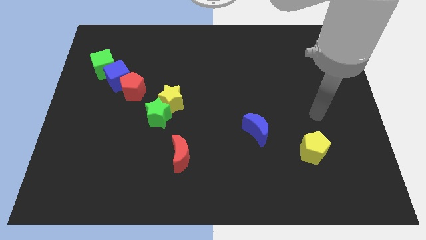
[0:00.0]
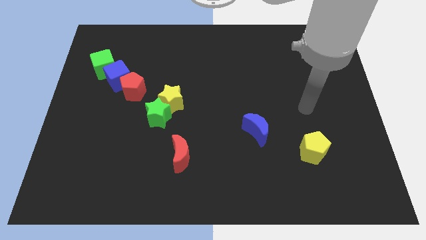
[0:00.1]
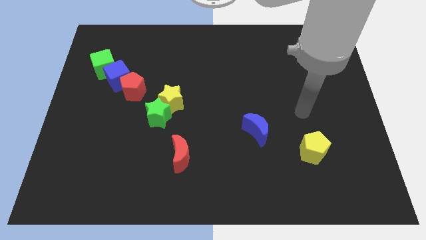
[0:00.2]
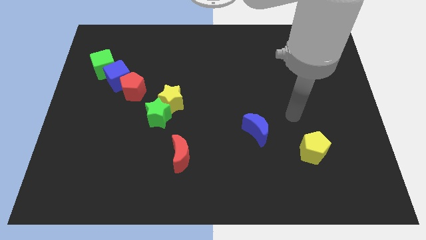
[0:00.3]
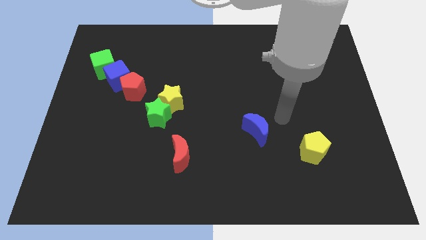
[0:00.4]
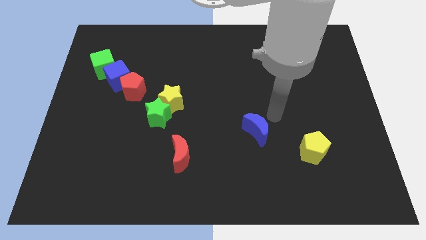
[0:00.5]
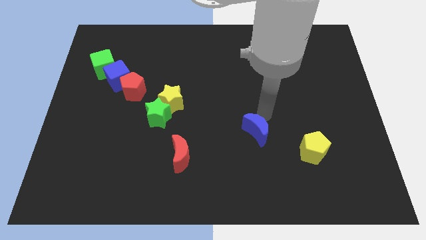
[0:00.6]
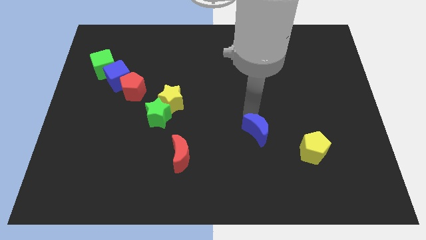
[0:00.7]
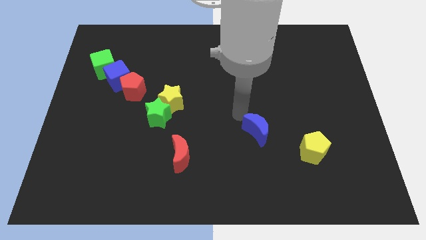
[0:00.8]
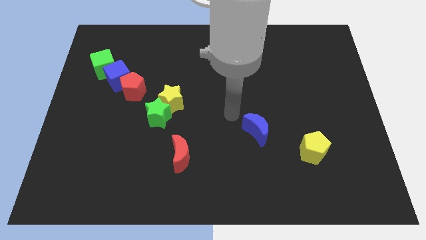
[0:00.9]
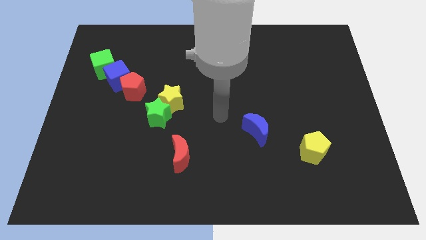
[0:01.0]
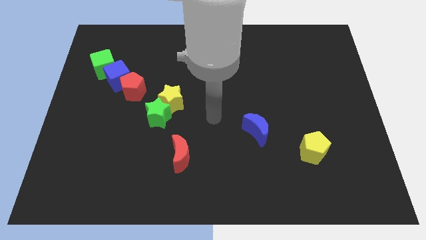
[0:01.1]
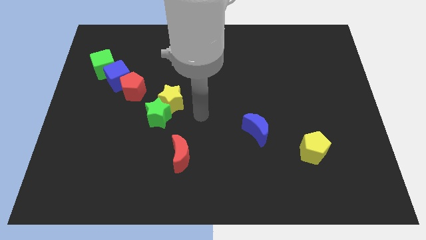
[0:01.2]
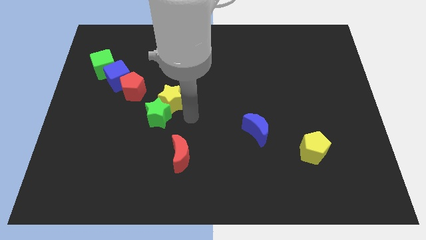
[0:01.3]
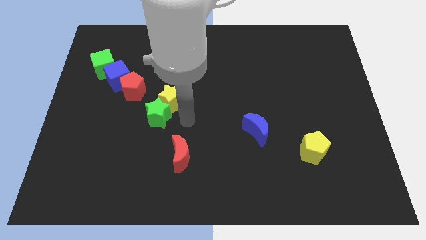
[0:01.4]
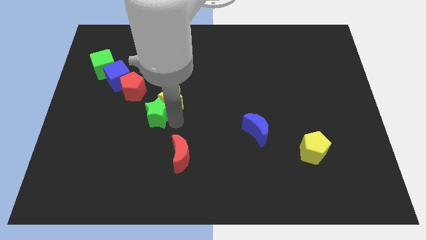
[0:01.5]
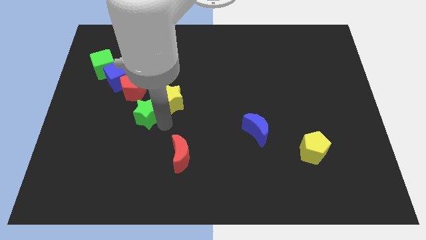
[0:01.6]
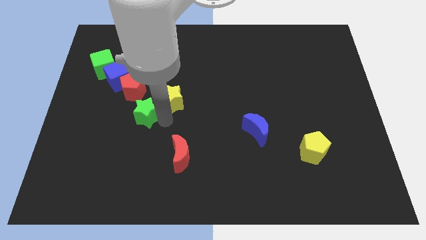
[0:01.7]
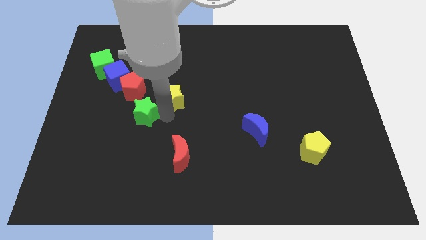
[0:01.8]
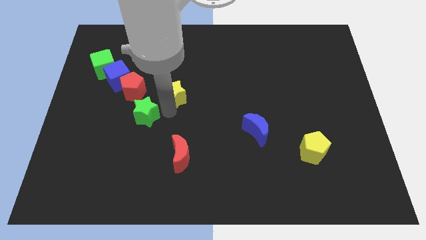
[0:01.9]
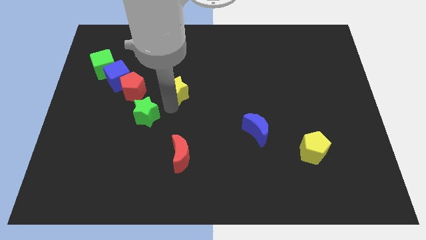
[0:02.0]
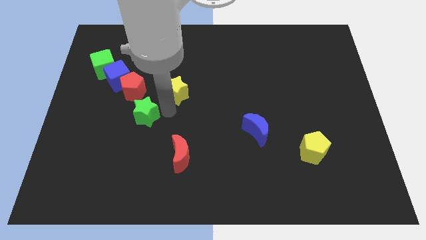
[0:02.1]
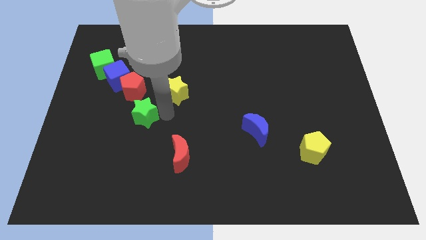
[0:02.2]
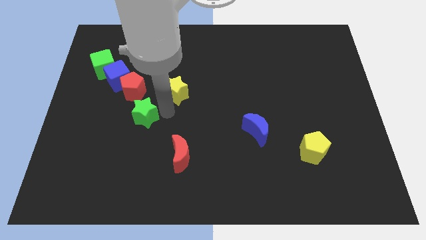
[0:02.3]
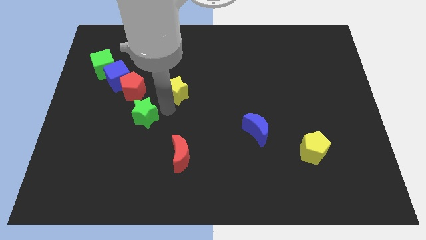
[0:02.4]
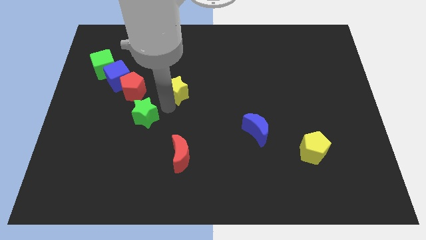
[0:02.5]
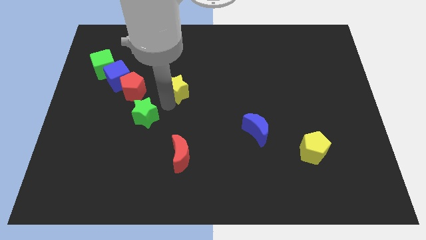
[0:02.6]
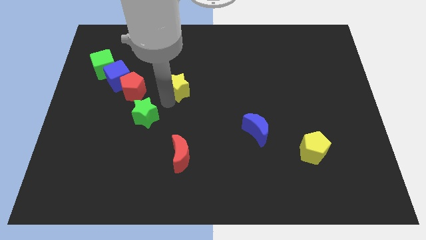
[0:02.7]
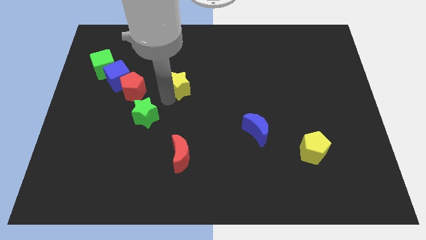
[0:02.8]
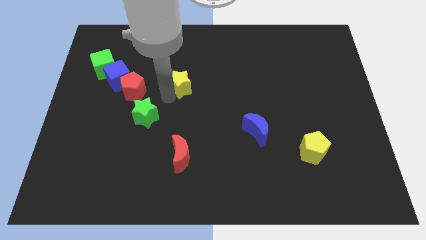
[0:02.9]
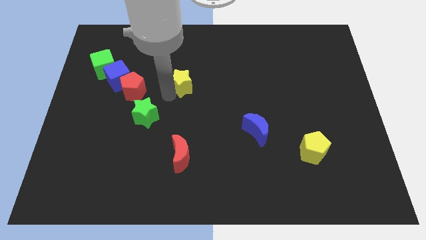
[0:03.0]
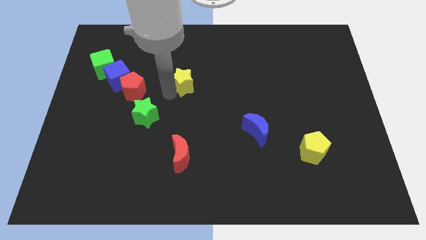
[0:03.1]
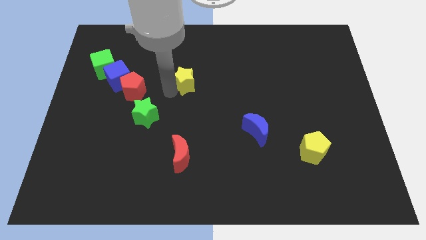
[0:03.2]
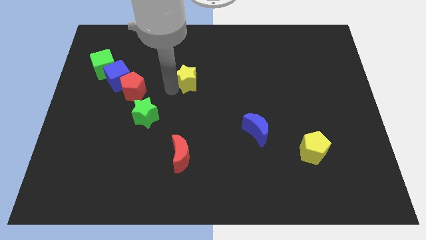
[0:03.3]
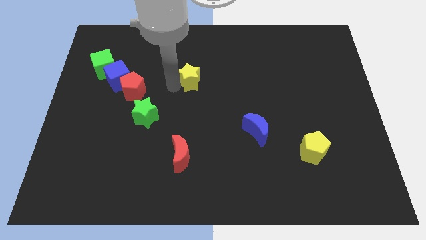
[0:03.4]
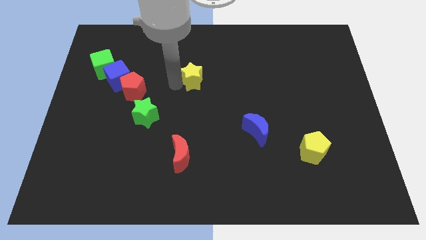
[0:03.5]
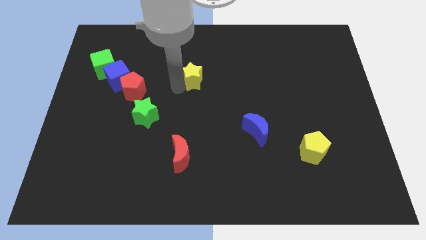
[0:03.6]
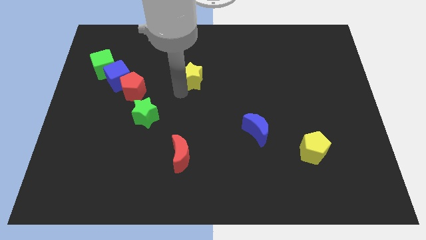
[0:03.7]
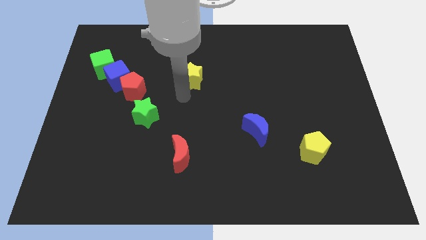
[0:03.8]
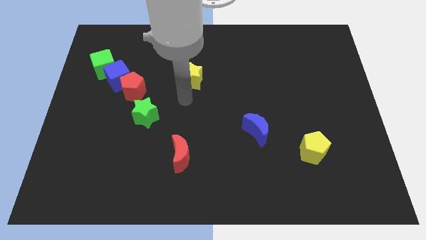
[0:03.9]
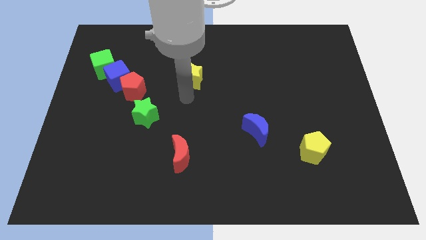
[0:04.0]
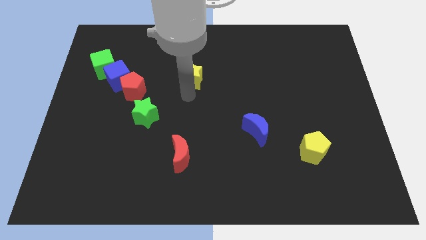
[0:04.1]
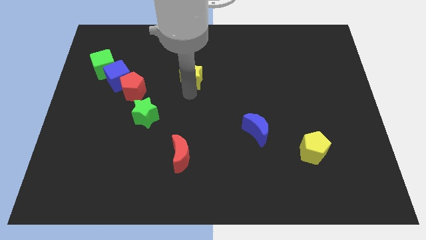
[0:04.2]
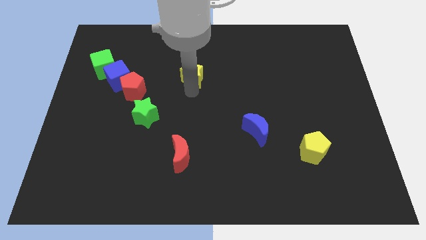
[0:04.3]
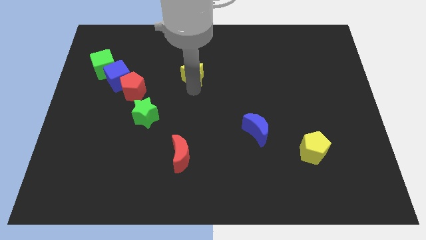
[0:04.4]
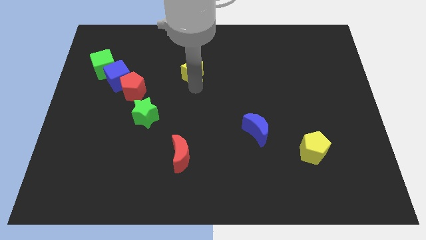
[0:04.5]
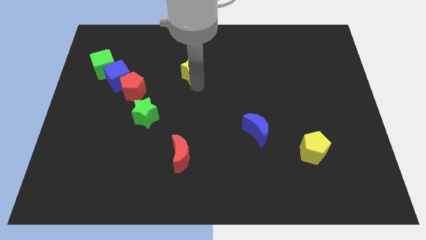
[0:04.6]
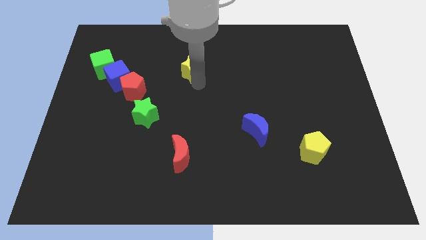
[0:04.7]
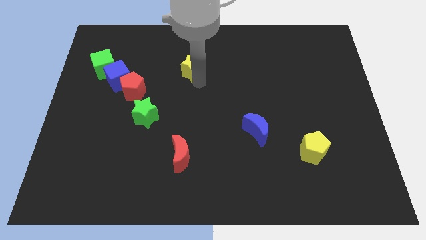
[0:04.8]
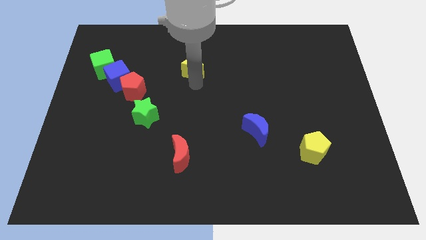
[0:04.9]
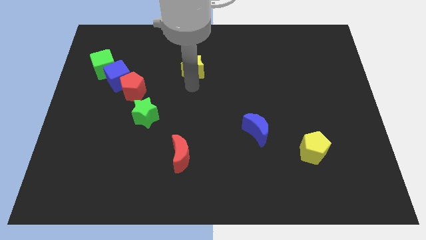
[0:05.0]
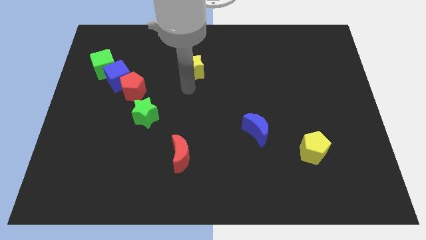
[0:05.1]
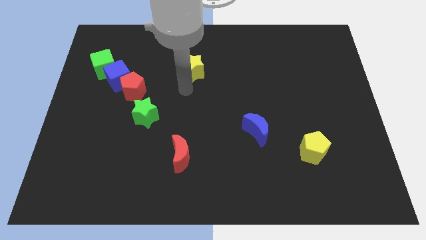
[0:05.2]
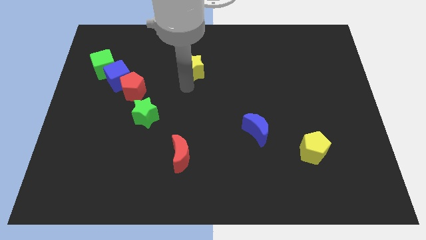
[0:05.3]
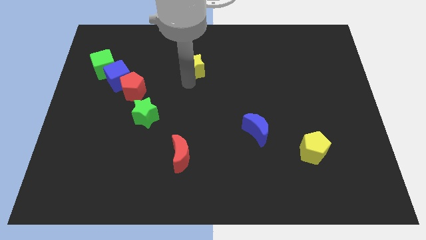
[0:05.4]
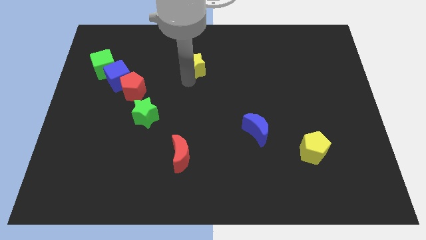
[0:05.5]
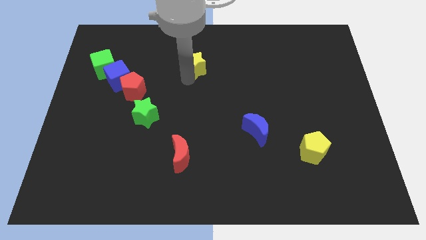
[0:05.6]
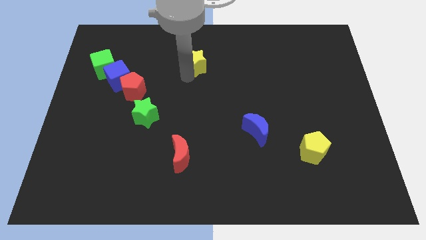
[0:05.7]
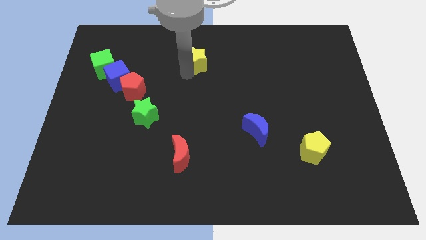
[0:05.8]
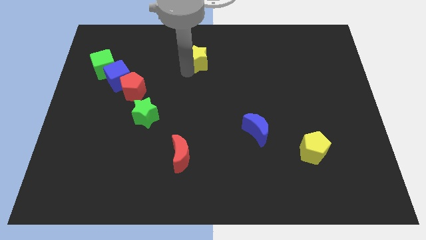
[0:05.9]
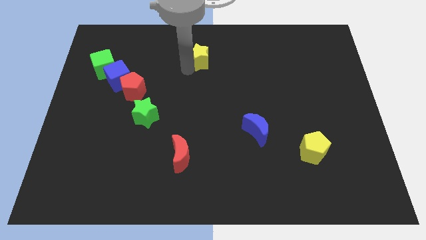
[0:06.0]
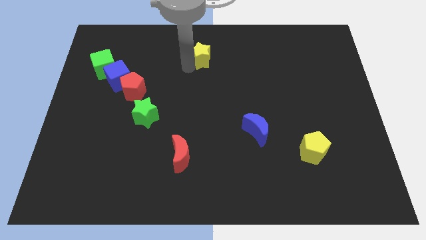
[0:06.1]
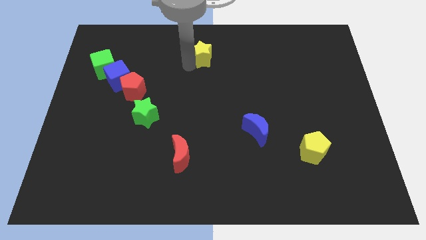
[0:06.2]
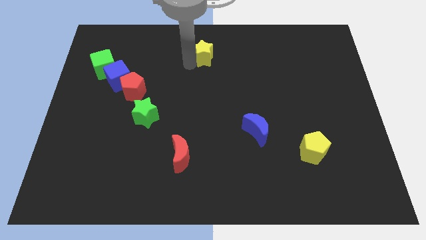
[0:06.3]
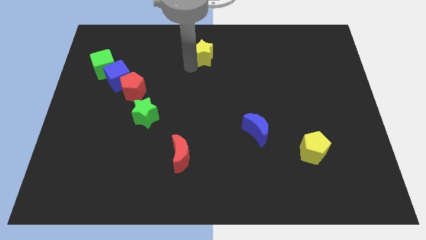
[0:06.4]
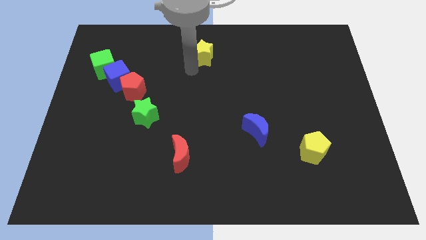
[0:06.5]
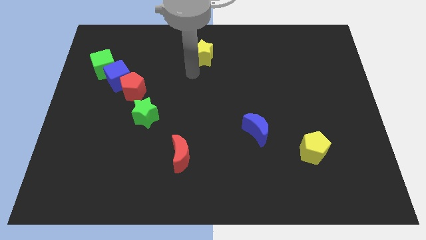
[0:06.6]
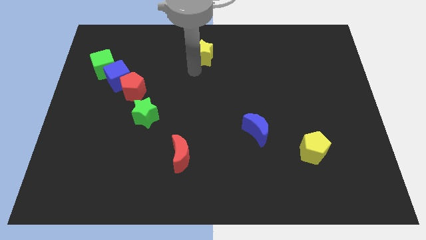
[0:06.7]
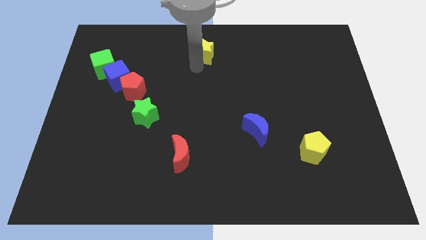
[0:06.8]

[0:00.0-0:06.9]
push the yellow star to the top
